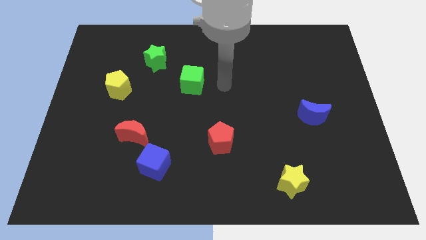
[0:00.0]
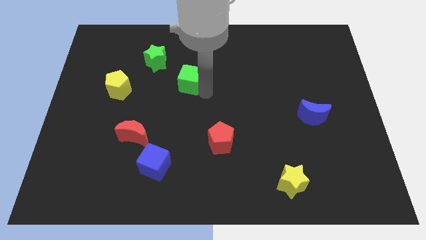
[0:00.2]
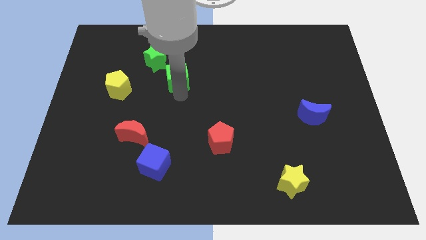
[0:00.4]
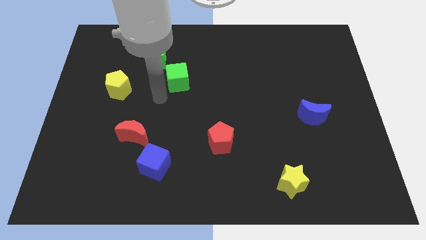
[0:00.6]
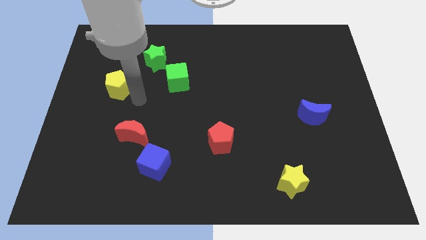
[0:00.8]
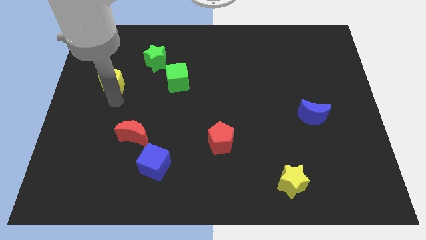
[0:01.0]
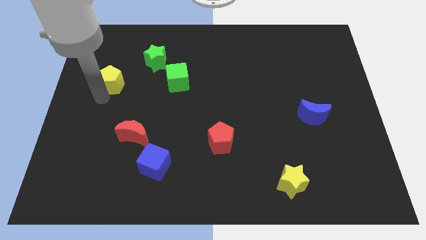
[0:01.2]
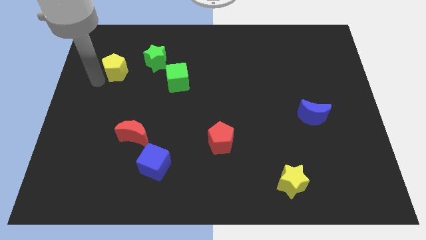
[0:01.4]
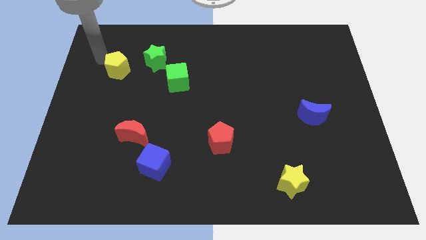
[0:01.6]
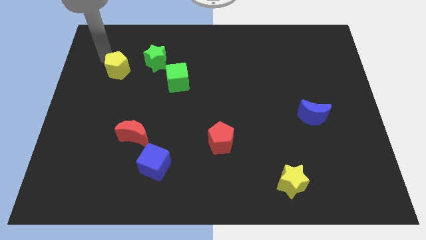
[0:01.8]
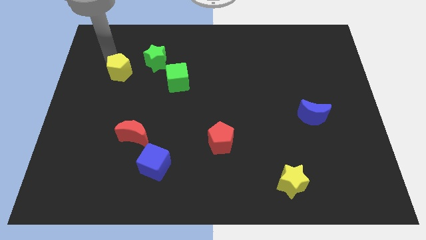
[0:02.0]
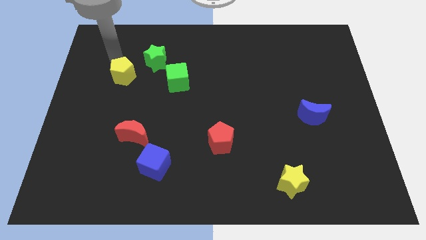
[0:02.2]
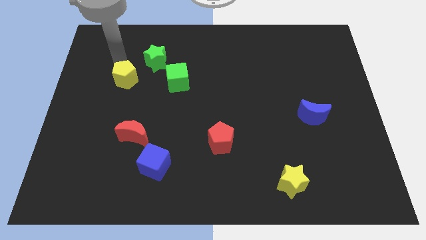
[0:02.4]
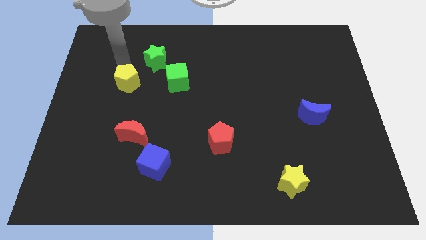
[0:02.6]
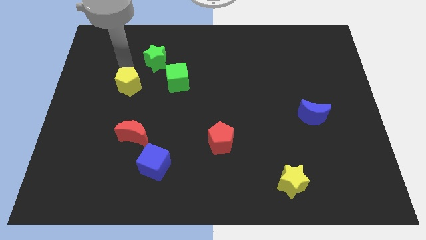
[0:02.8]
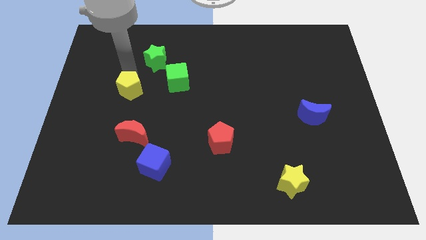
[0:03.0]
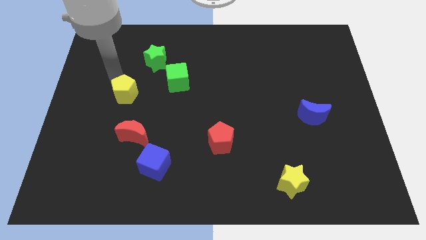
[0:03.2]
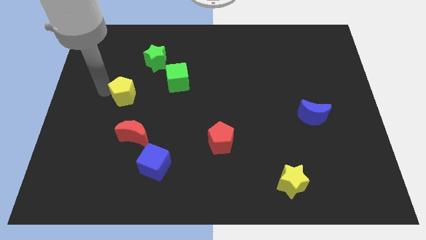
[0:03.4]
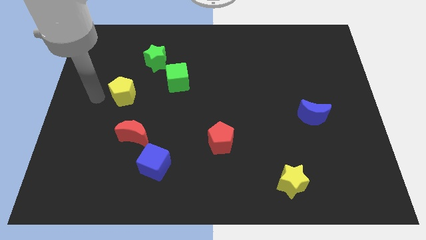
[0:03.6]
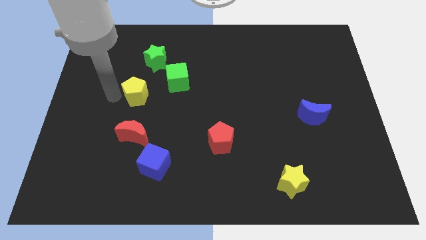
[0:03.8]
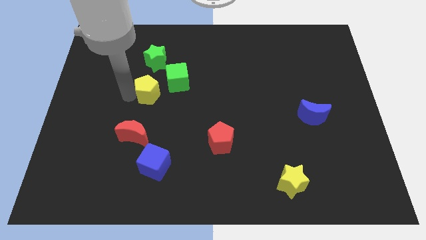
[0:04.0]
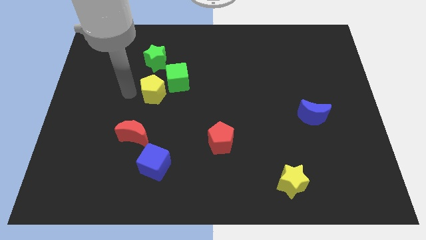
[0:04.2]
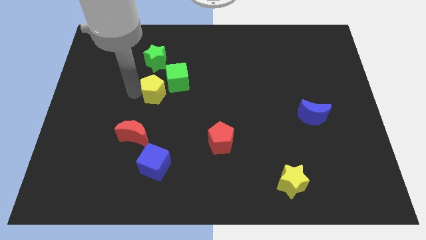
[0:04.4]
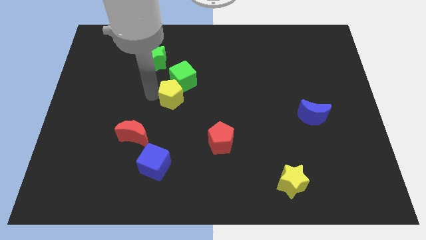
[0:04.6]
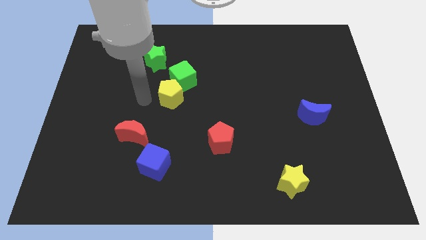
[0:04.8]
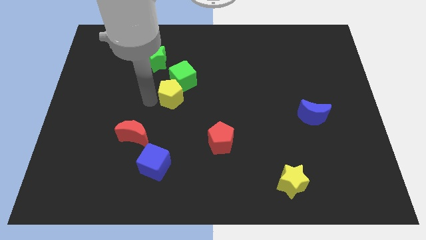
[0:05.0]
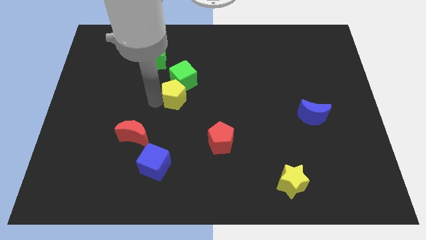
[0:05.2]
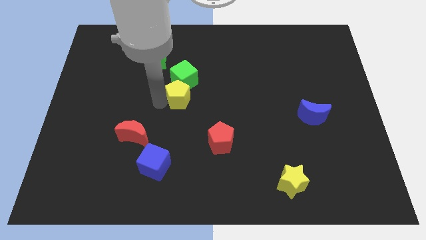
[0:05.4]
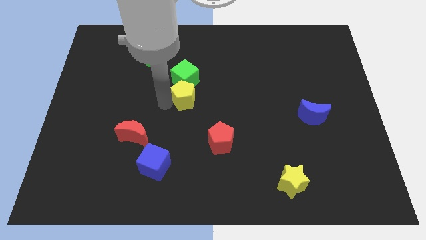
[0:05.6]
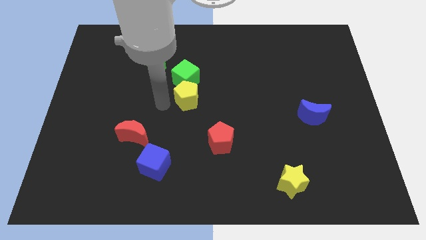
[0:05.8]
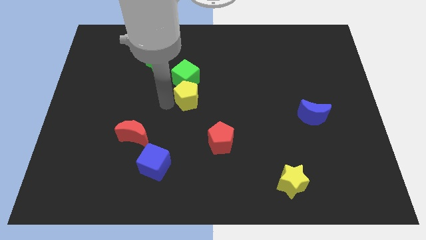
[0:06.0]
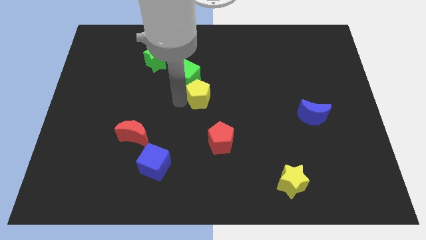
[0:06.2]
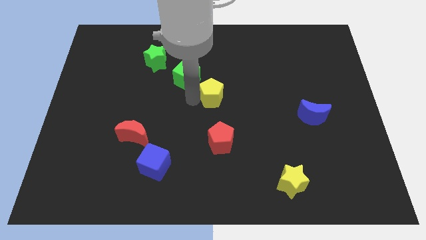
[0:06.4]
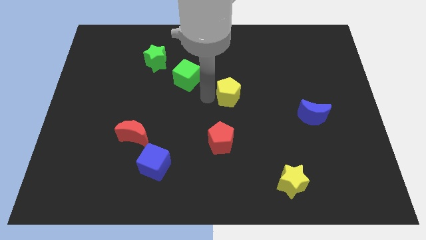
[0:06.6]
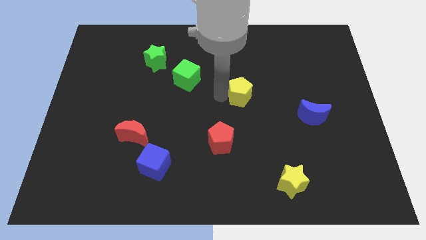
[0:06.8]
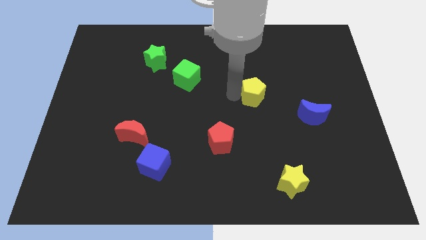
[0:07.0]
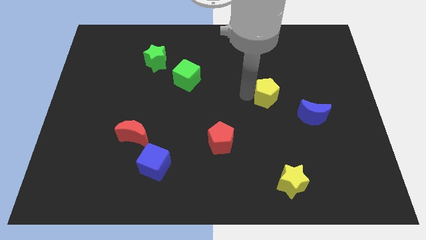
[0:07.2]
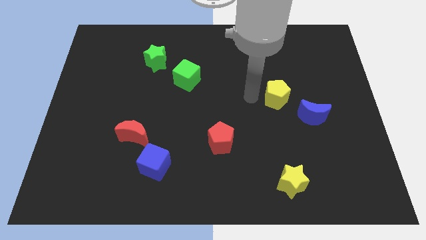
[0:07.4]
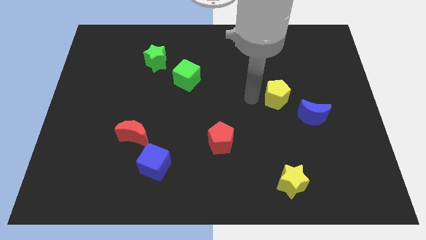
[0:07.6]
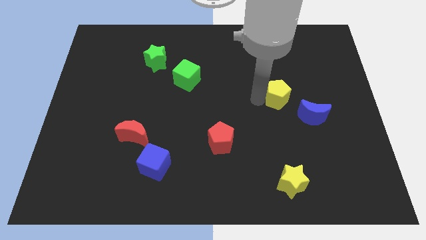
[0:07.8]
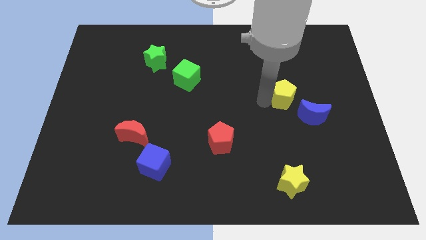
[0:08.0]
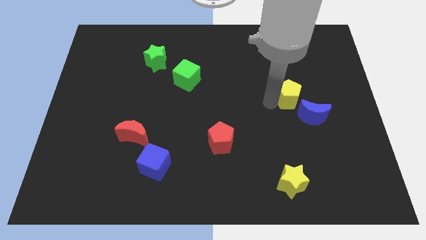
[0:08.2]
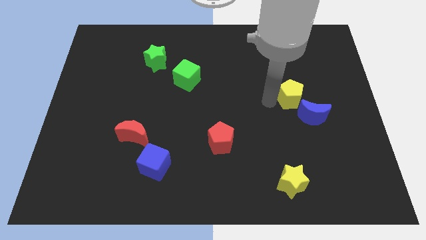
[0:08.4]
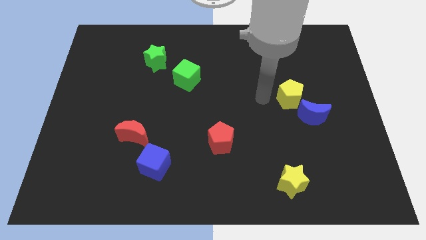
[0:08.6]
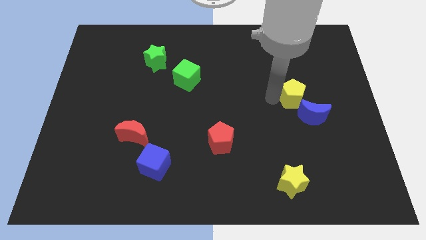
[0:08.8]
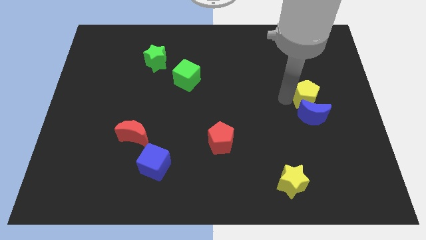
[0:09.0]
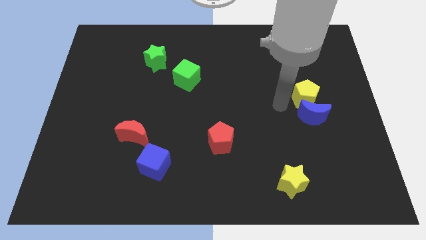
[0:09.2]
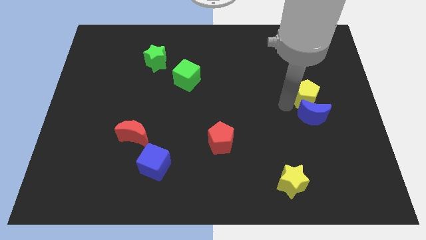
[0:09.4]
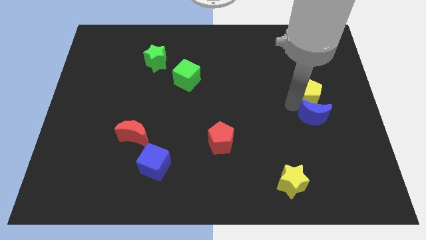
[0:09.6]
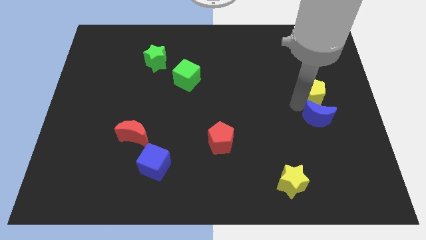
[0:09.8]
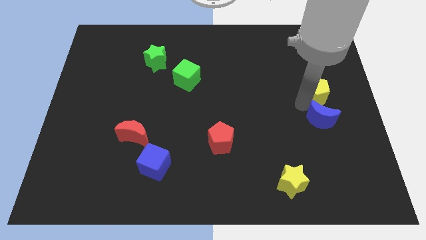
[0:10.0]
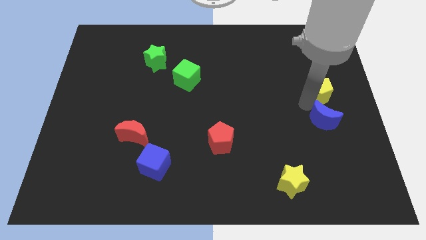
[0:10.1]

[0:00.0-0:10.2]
push the yellow pentagon to the center right
